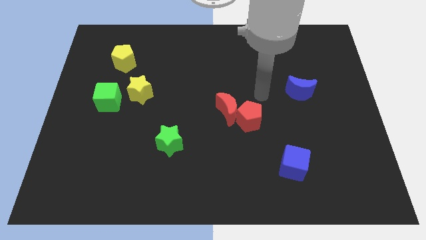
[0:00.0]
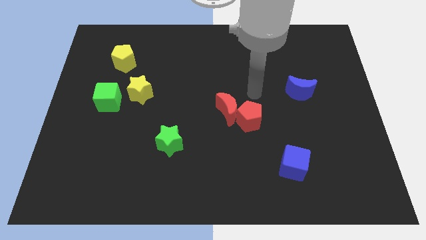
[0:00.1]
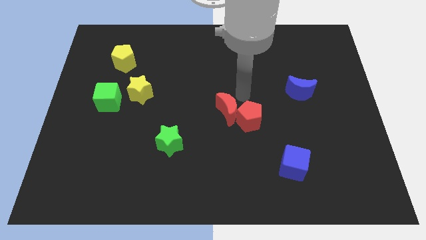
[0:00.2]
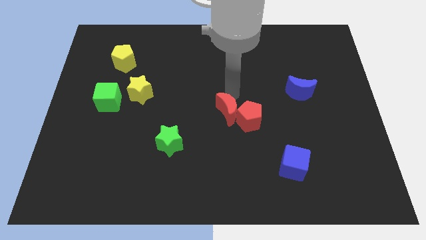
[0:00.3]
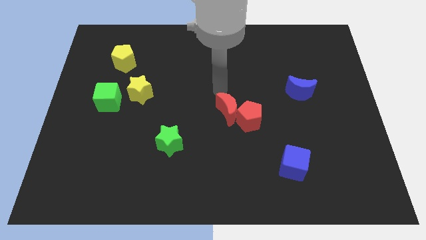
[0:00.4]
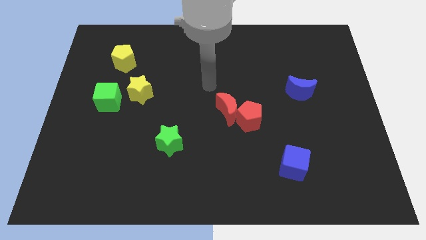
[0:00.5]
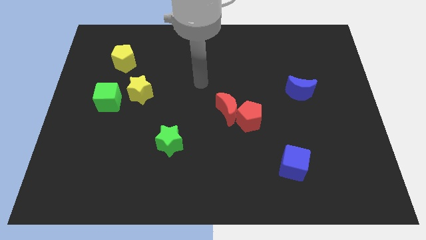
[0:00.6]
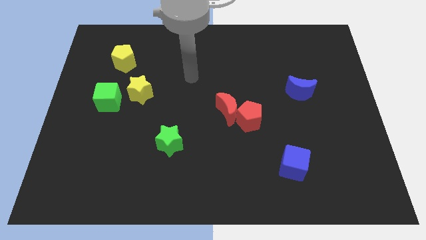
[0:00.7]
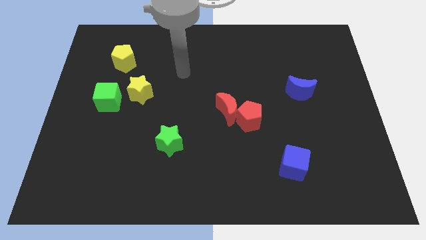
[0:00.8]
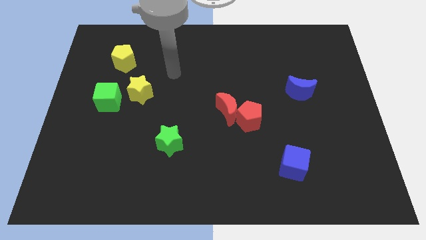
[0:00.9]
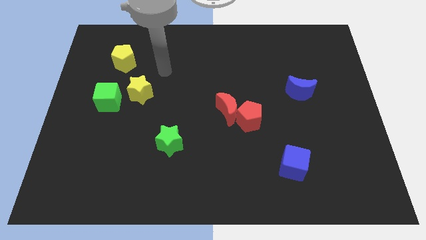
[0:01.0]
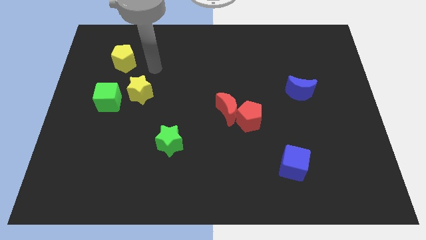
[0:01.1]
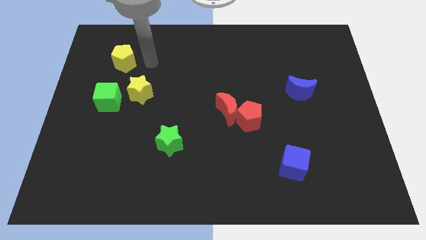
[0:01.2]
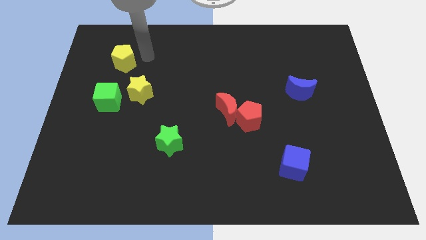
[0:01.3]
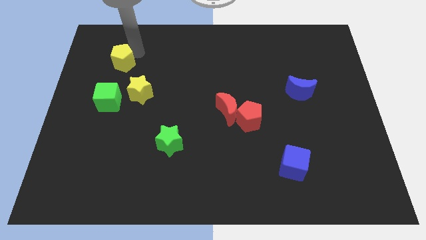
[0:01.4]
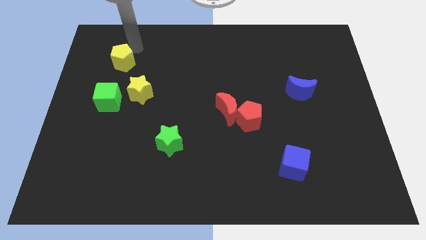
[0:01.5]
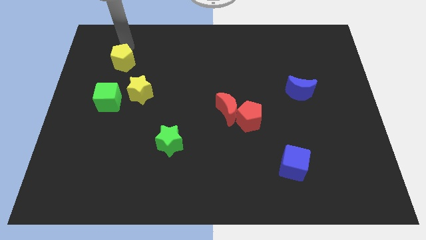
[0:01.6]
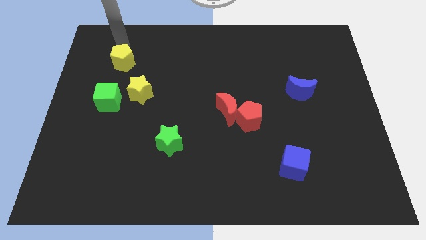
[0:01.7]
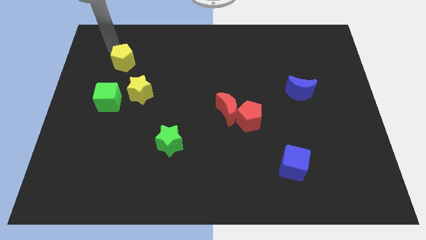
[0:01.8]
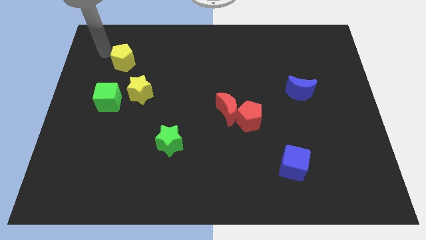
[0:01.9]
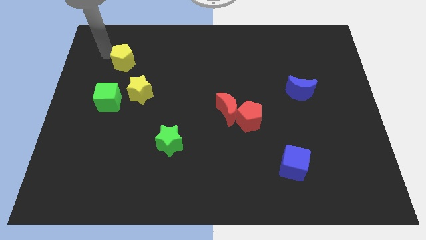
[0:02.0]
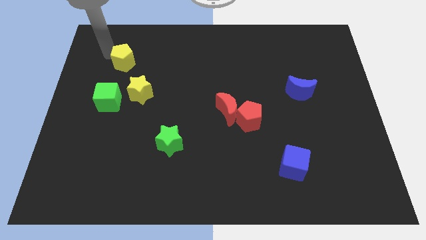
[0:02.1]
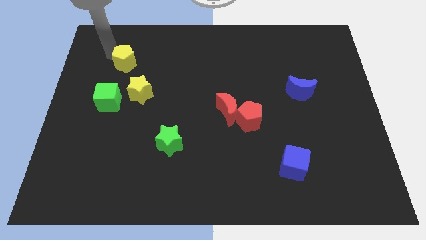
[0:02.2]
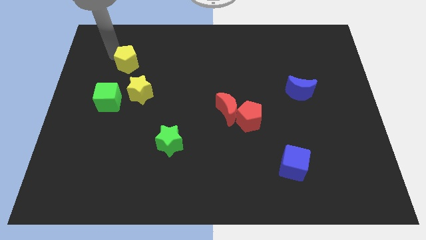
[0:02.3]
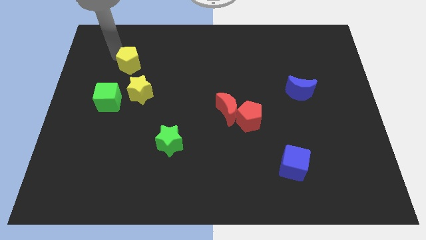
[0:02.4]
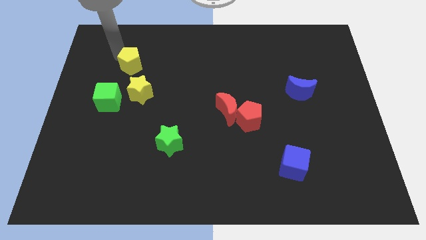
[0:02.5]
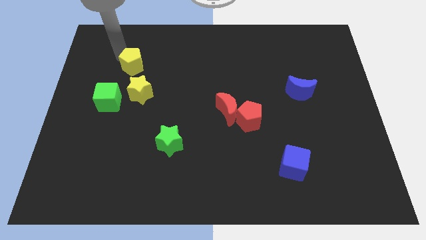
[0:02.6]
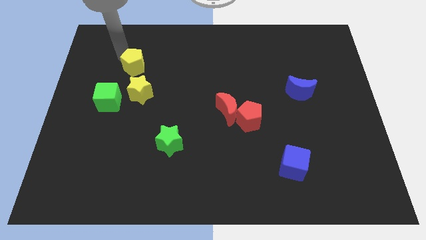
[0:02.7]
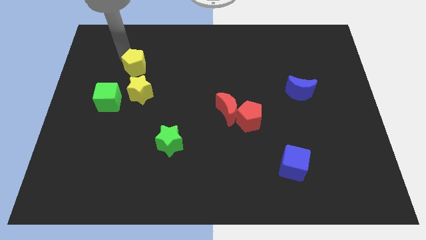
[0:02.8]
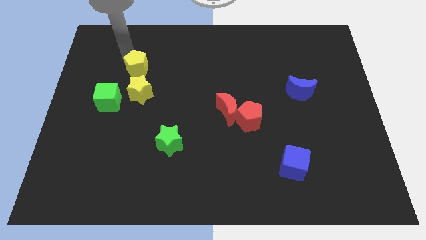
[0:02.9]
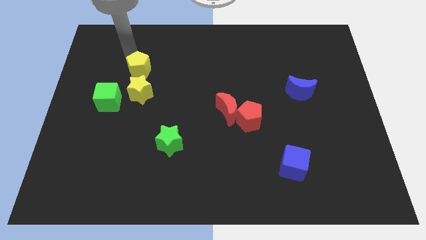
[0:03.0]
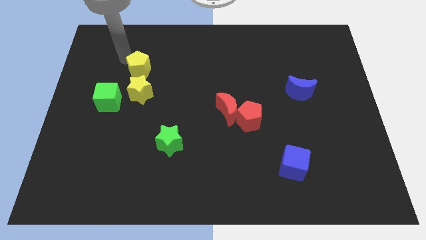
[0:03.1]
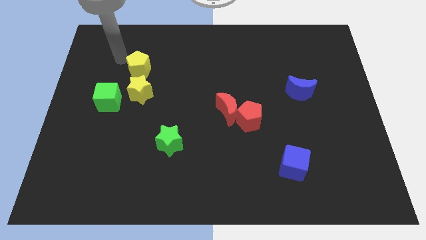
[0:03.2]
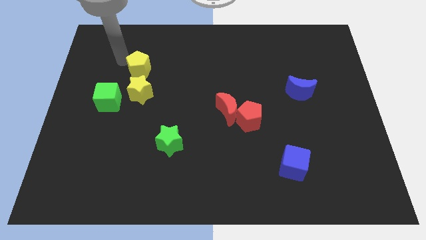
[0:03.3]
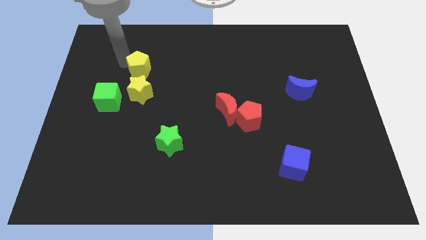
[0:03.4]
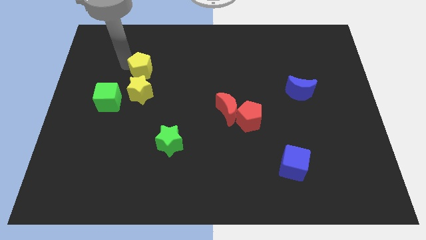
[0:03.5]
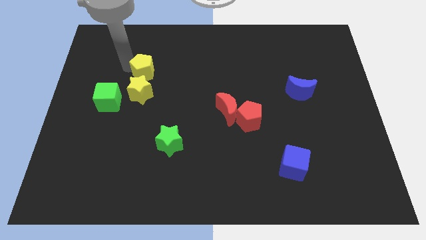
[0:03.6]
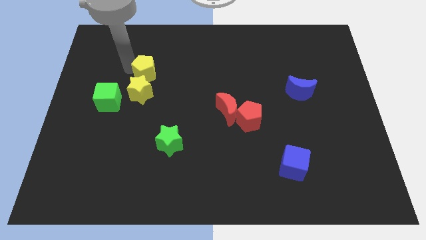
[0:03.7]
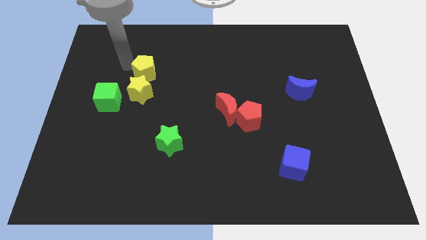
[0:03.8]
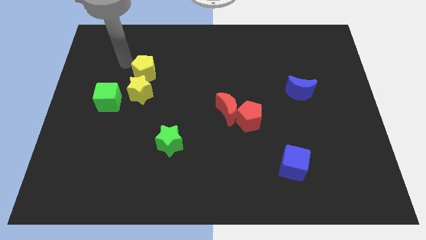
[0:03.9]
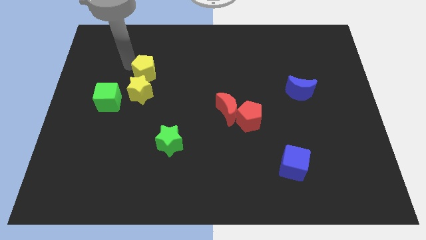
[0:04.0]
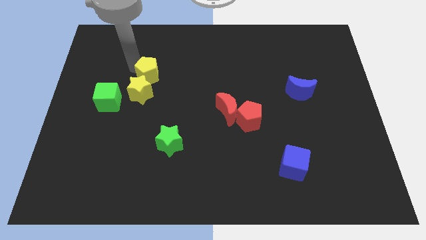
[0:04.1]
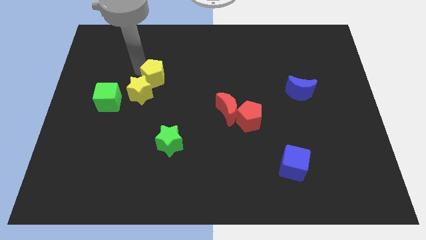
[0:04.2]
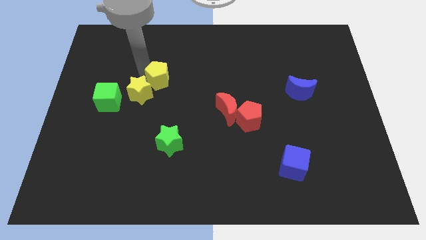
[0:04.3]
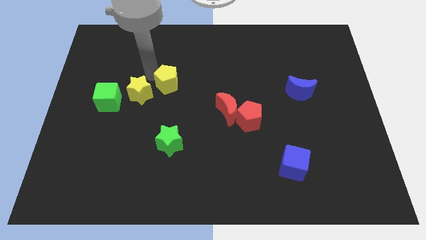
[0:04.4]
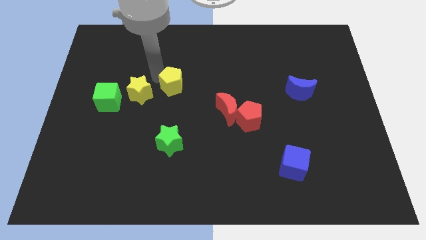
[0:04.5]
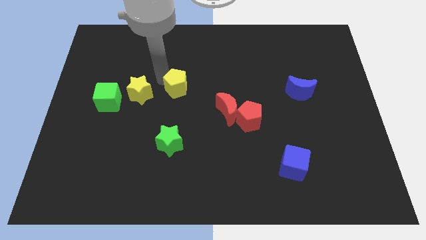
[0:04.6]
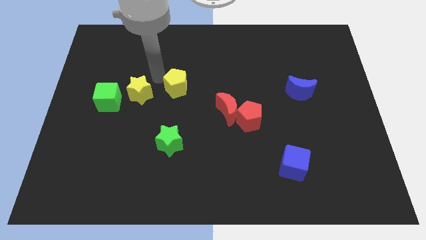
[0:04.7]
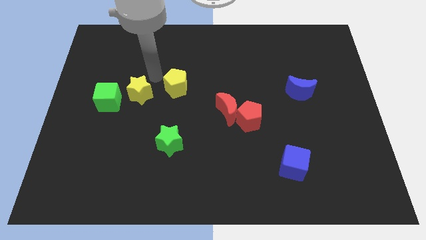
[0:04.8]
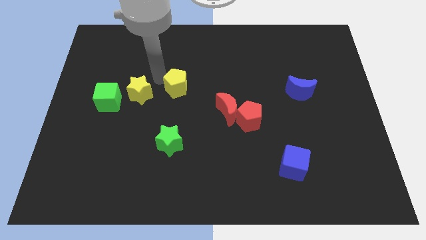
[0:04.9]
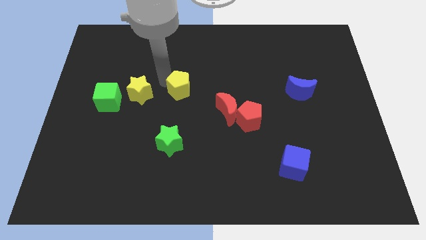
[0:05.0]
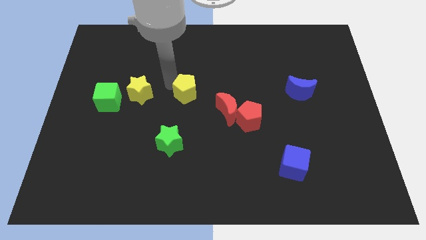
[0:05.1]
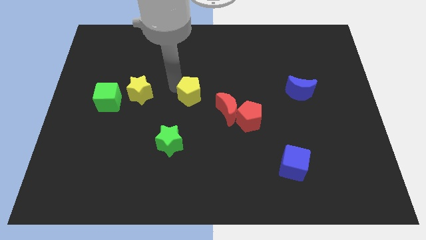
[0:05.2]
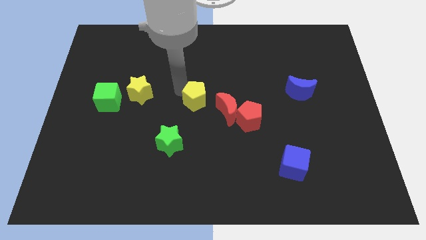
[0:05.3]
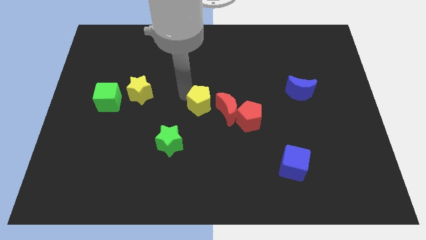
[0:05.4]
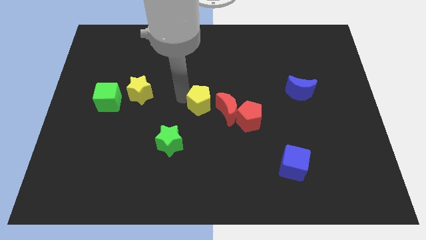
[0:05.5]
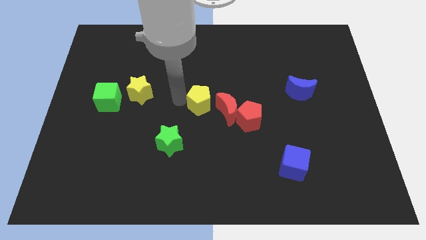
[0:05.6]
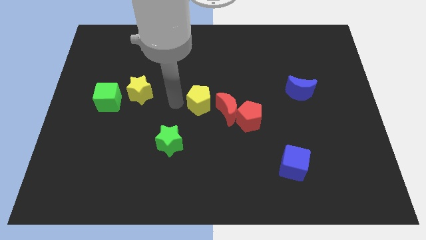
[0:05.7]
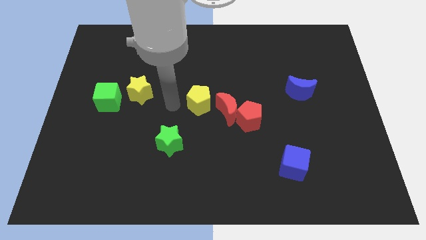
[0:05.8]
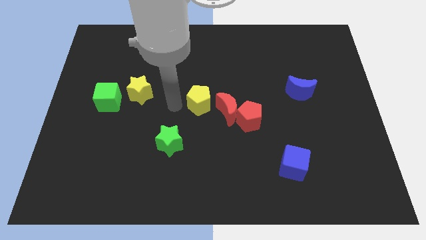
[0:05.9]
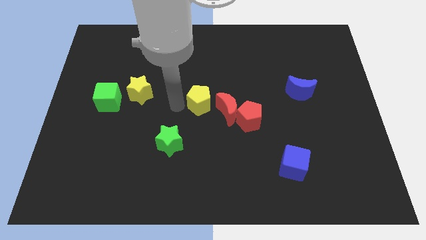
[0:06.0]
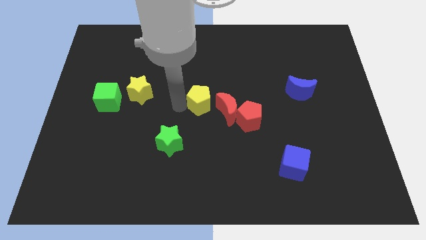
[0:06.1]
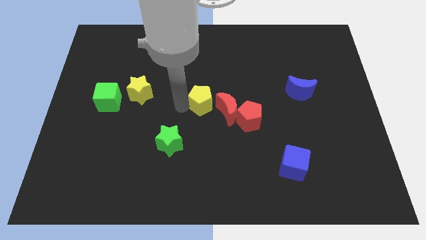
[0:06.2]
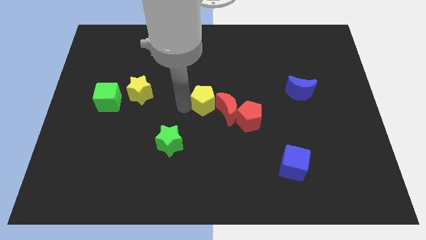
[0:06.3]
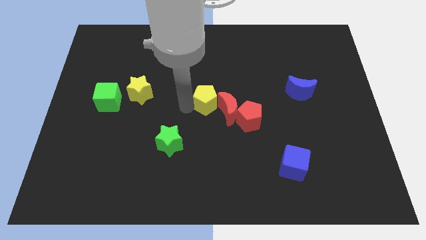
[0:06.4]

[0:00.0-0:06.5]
slide the yellow pentagon to the red moon

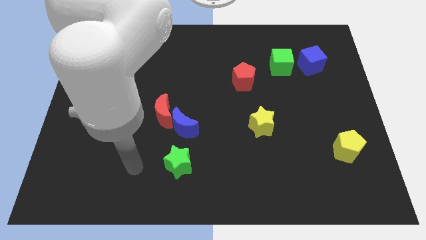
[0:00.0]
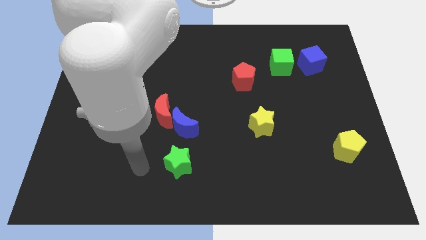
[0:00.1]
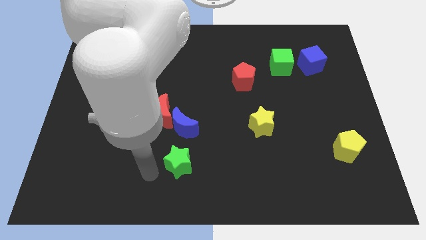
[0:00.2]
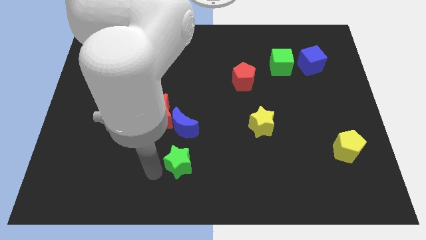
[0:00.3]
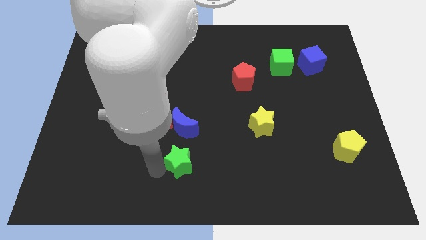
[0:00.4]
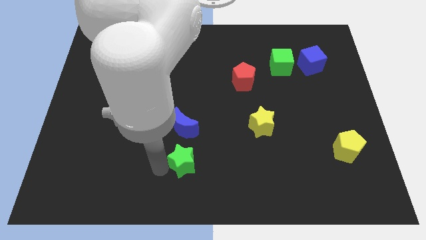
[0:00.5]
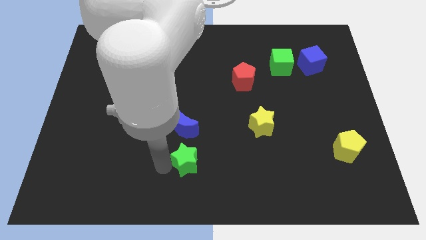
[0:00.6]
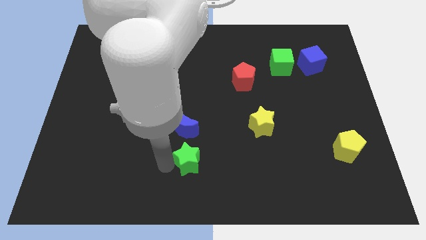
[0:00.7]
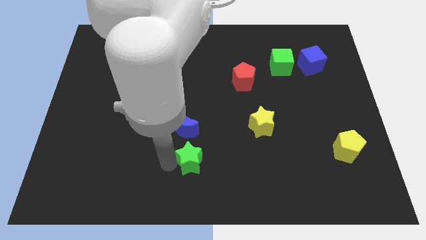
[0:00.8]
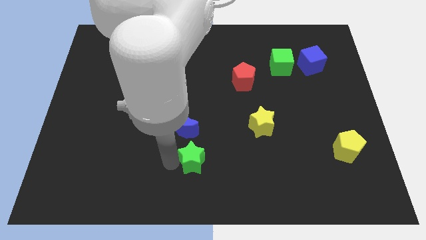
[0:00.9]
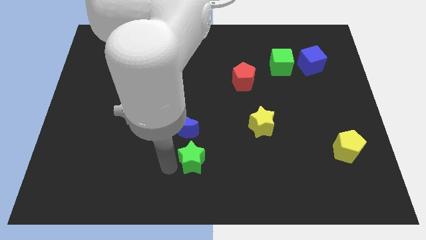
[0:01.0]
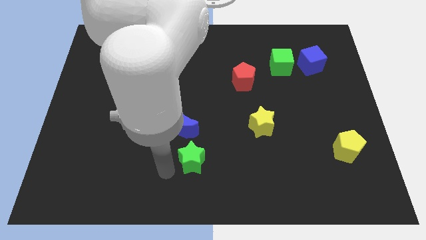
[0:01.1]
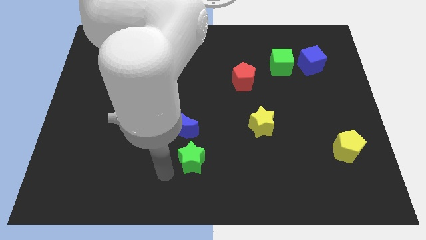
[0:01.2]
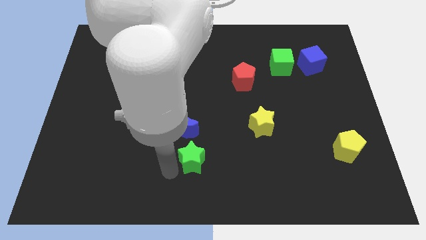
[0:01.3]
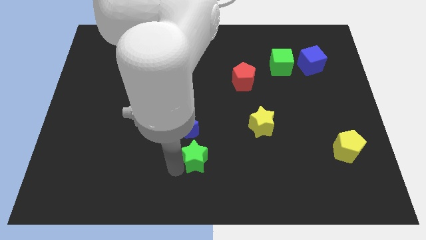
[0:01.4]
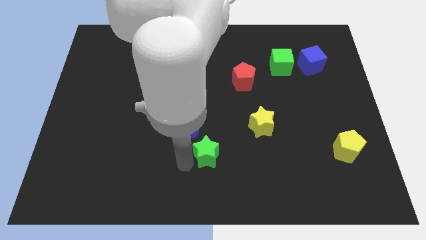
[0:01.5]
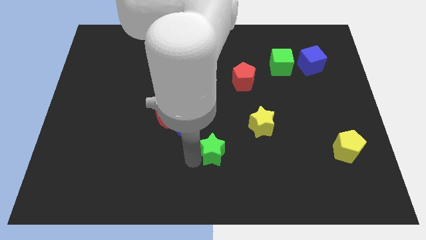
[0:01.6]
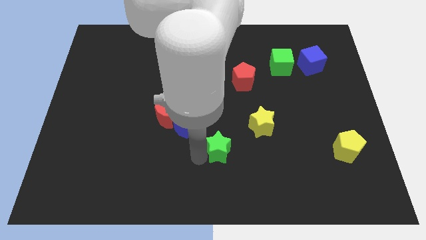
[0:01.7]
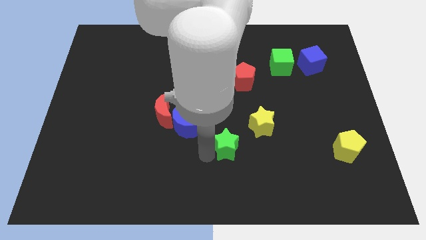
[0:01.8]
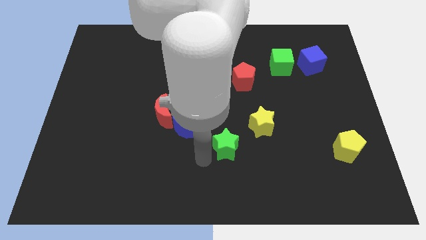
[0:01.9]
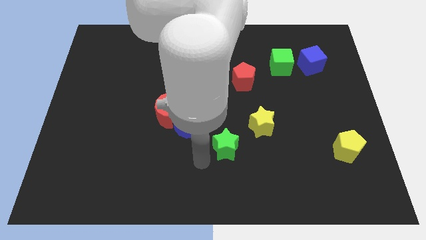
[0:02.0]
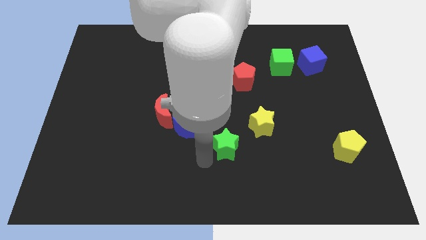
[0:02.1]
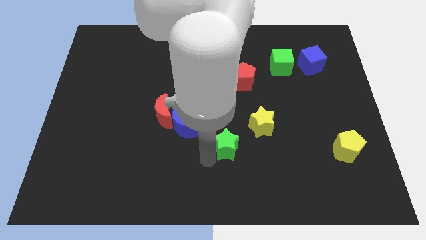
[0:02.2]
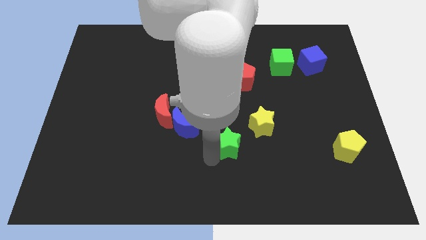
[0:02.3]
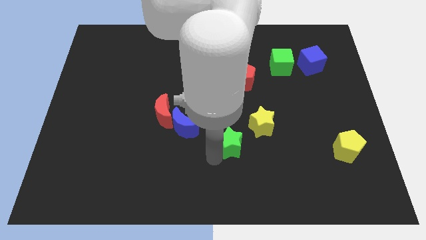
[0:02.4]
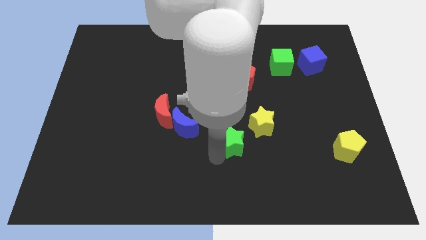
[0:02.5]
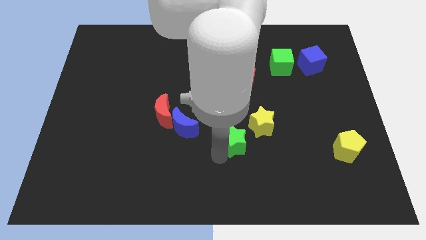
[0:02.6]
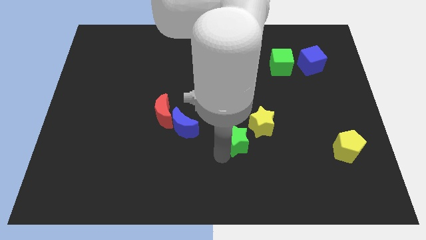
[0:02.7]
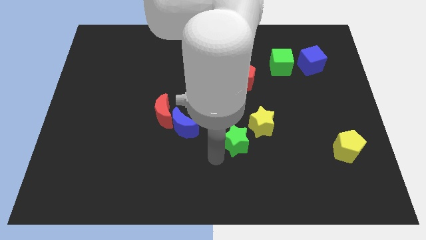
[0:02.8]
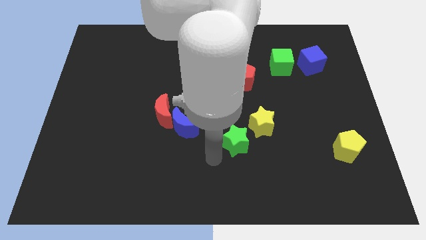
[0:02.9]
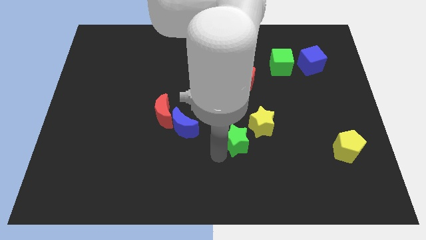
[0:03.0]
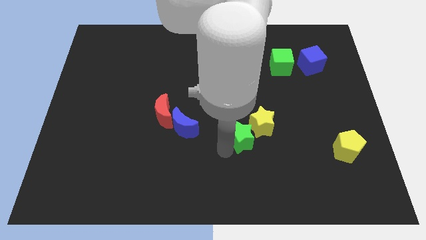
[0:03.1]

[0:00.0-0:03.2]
push the green star next to the yellow star
